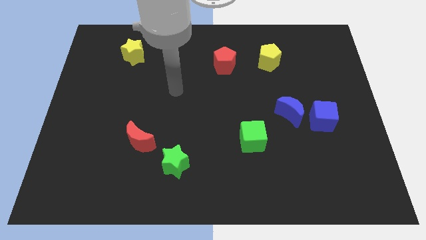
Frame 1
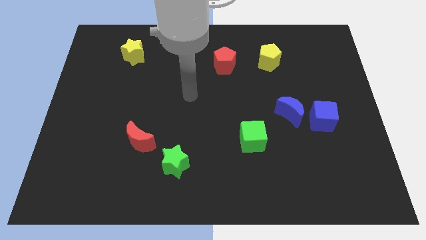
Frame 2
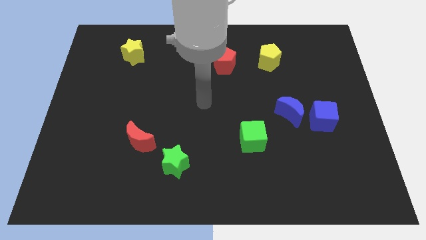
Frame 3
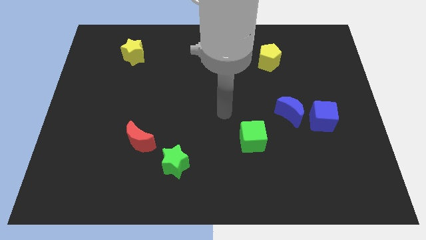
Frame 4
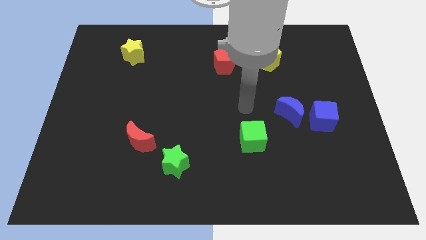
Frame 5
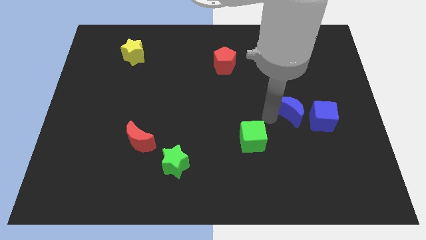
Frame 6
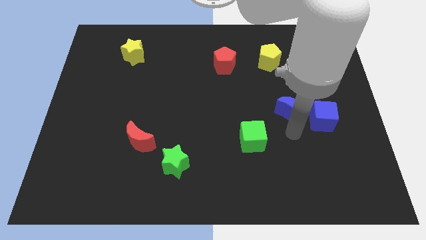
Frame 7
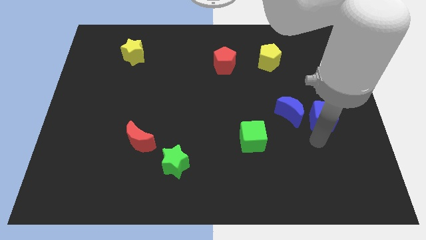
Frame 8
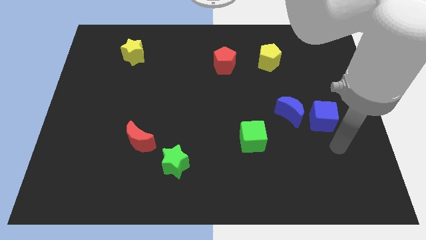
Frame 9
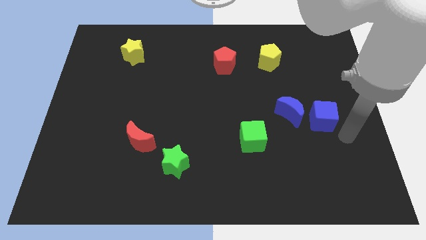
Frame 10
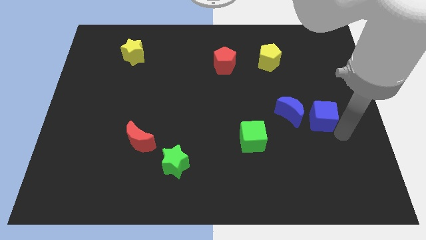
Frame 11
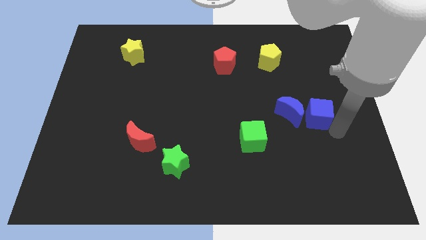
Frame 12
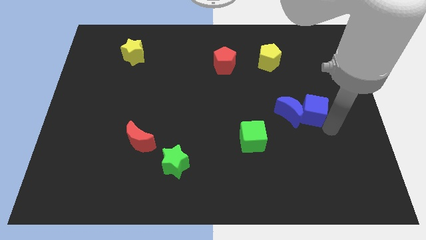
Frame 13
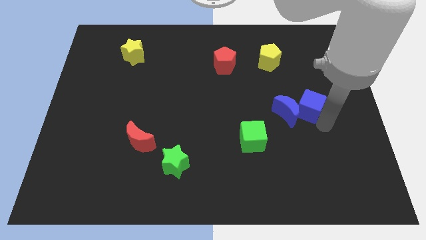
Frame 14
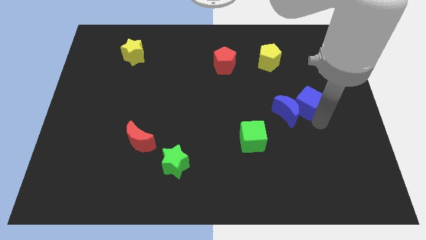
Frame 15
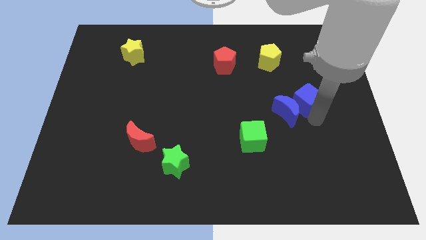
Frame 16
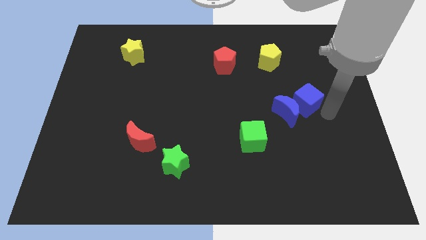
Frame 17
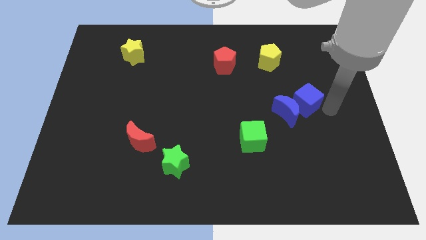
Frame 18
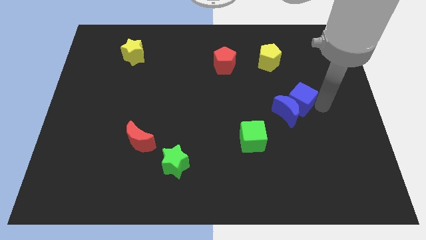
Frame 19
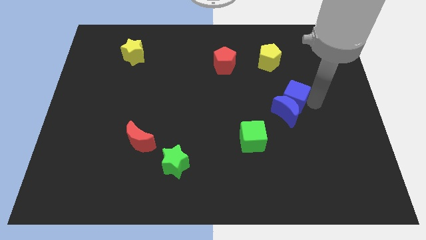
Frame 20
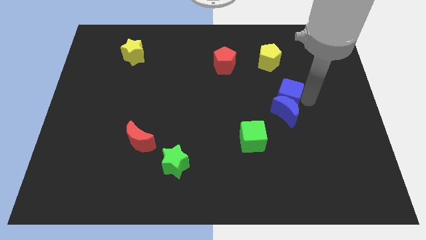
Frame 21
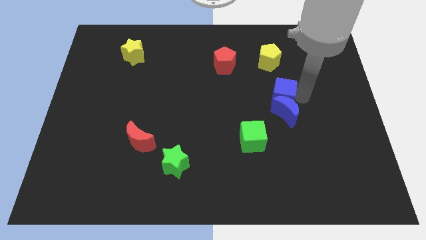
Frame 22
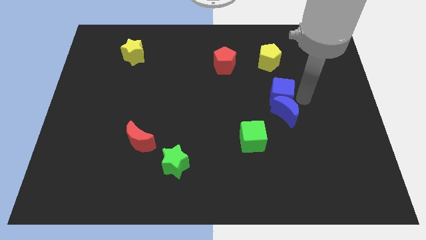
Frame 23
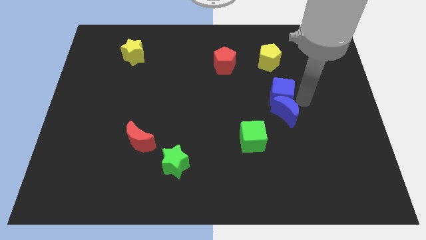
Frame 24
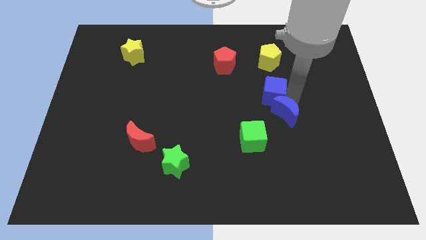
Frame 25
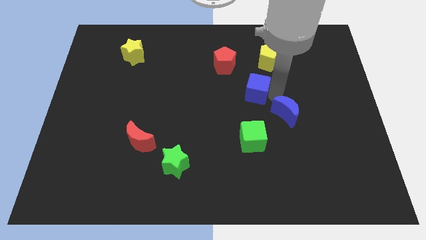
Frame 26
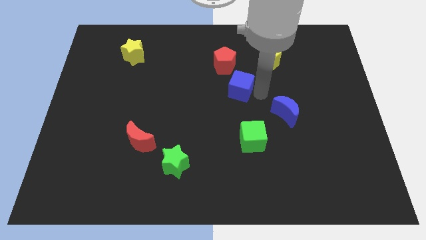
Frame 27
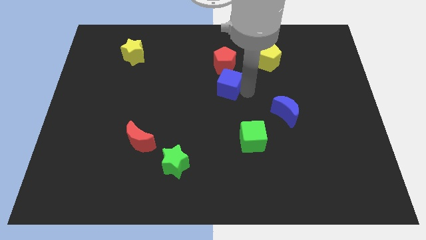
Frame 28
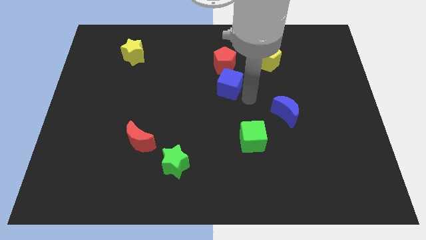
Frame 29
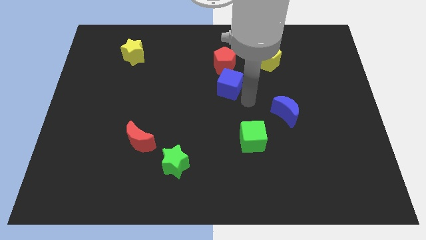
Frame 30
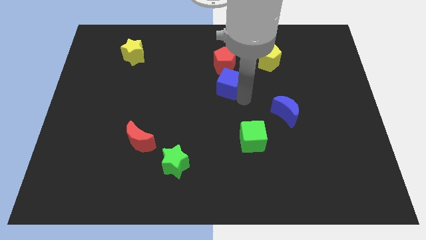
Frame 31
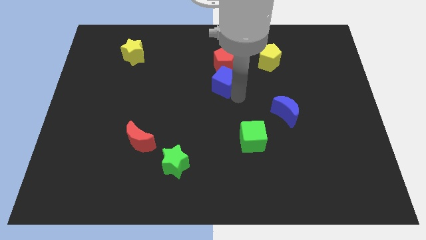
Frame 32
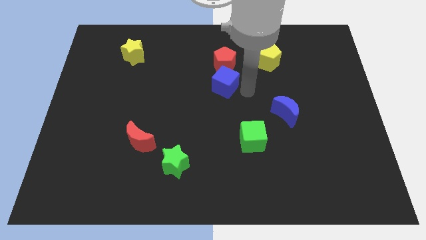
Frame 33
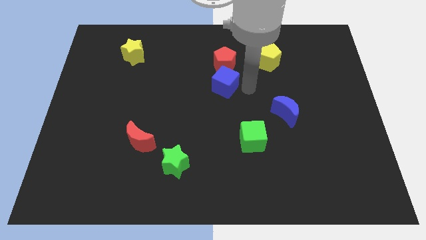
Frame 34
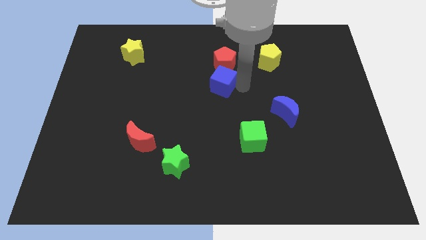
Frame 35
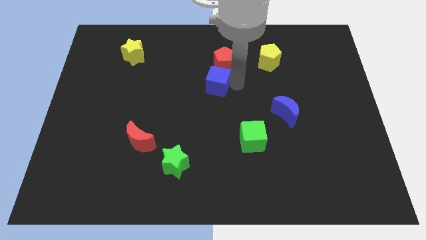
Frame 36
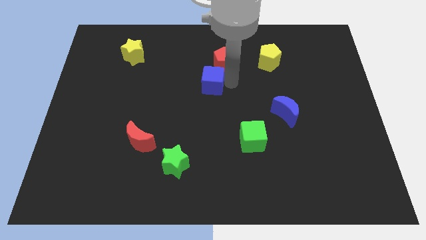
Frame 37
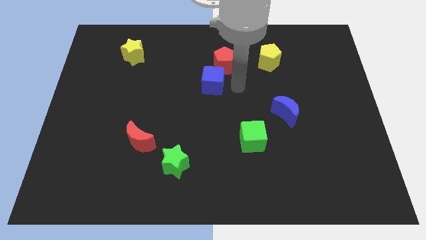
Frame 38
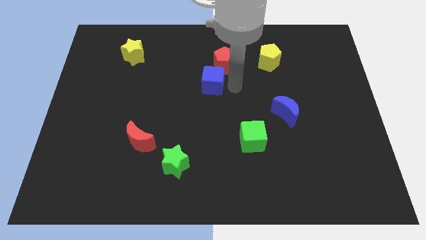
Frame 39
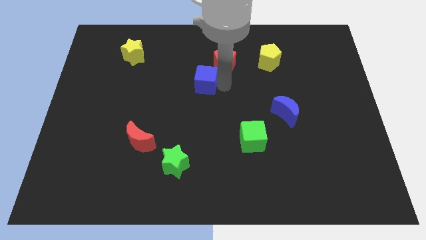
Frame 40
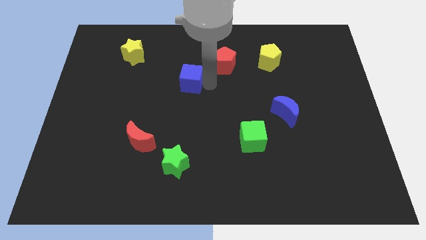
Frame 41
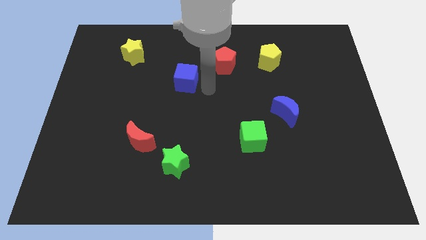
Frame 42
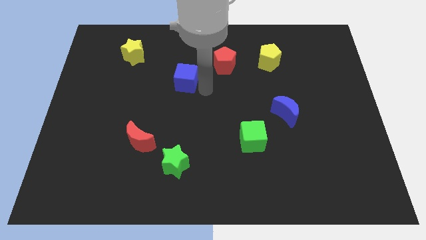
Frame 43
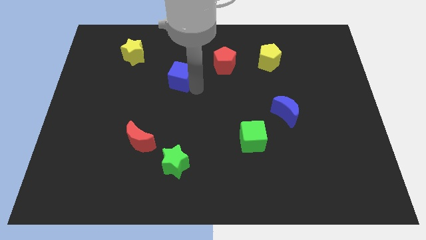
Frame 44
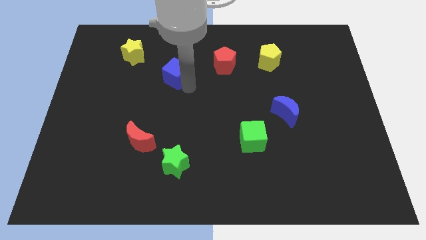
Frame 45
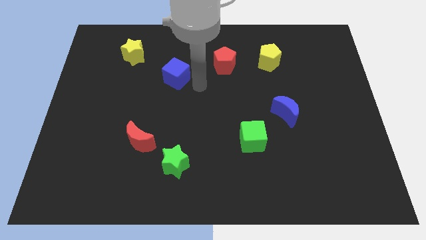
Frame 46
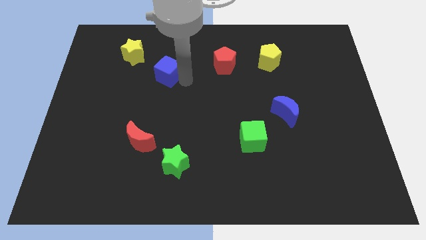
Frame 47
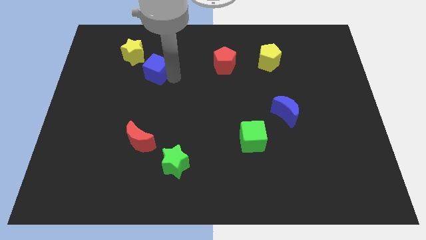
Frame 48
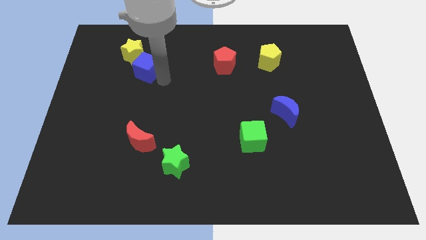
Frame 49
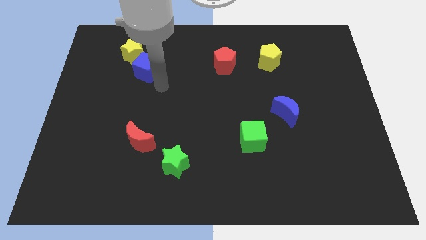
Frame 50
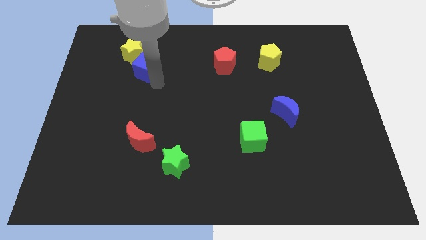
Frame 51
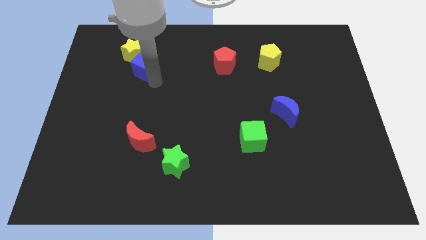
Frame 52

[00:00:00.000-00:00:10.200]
slide the blue cube to the yellow star

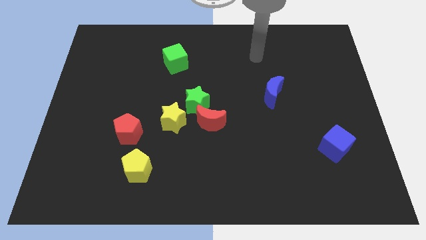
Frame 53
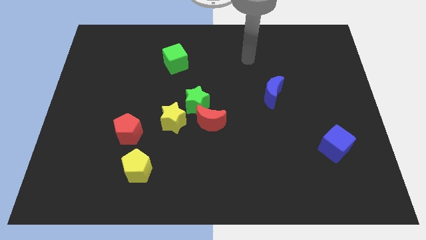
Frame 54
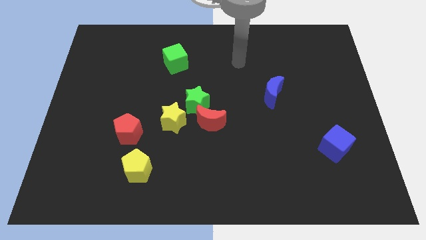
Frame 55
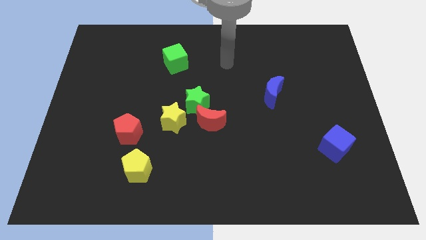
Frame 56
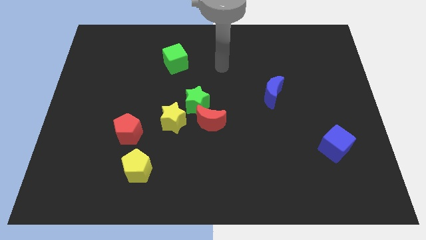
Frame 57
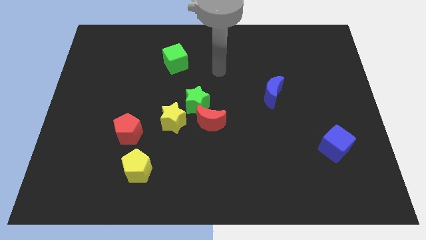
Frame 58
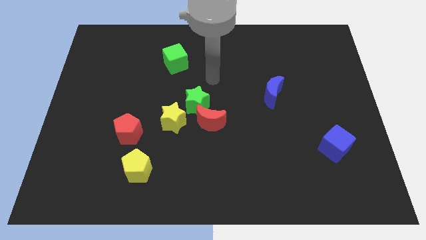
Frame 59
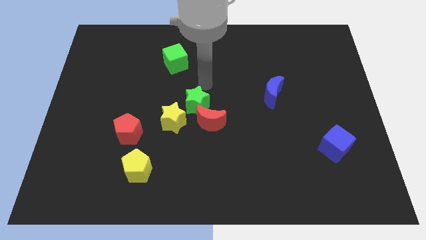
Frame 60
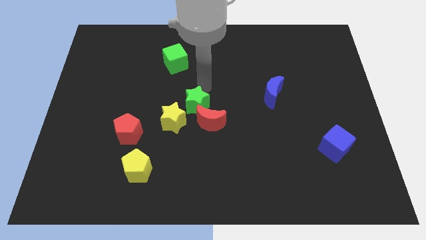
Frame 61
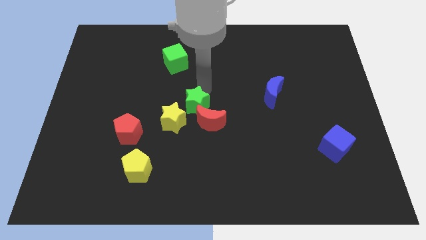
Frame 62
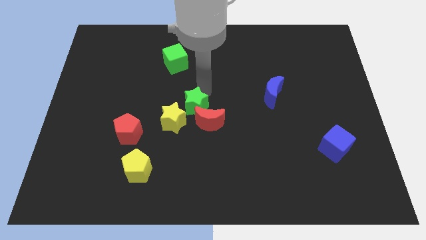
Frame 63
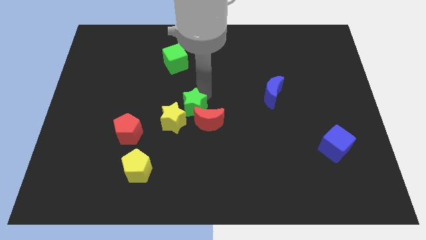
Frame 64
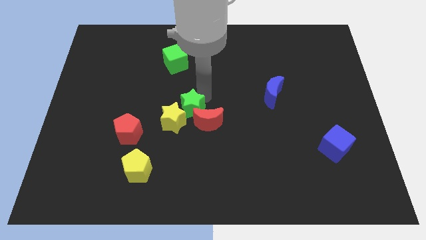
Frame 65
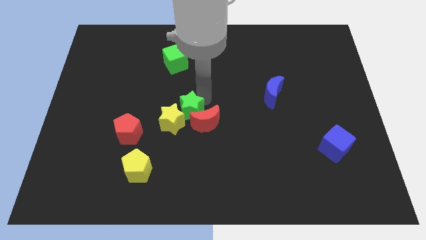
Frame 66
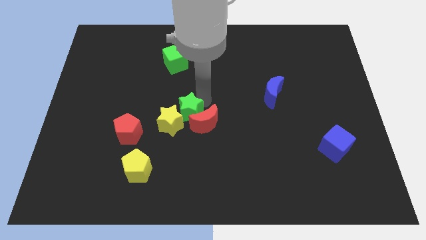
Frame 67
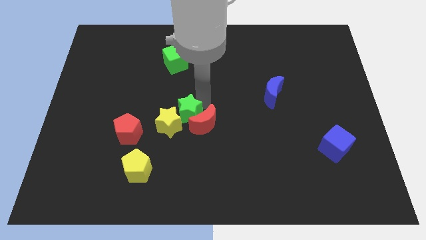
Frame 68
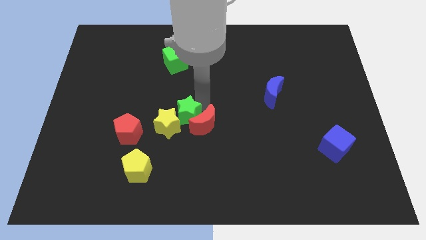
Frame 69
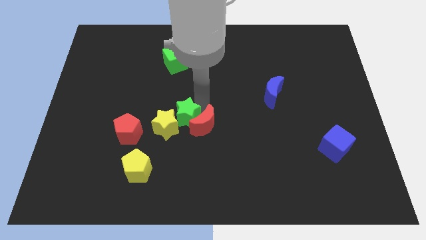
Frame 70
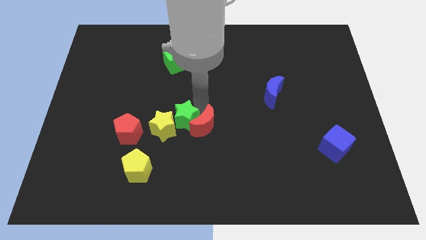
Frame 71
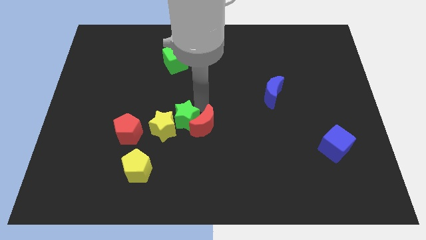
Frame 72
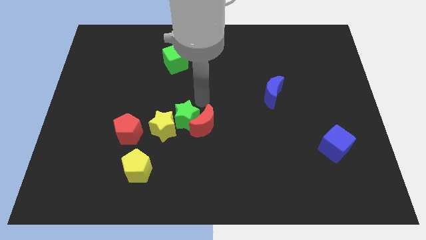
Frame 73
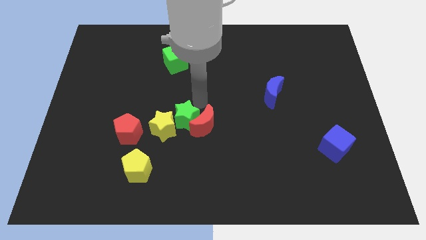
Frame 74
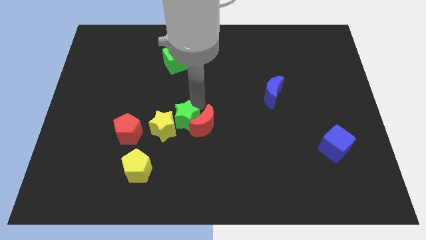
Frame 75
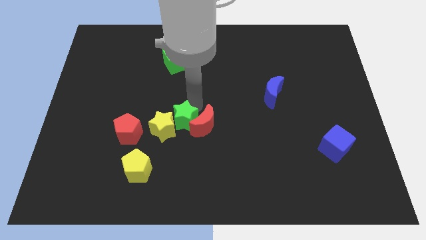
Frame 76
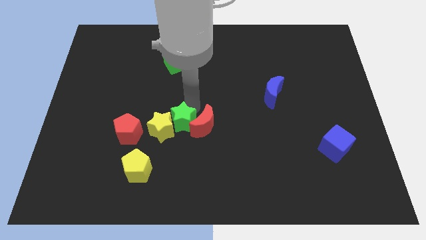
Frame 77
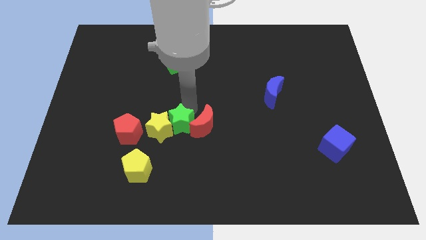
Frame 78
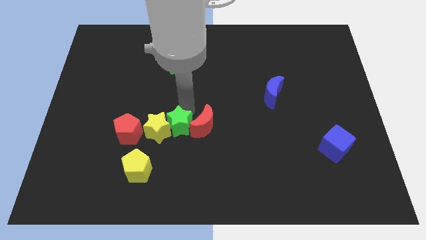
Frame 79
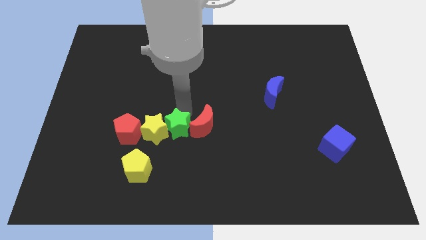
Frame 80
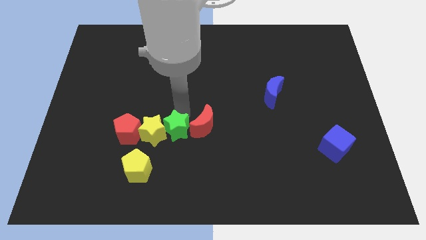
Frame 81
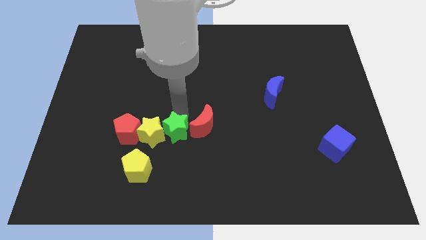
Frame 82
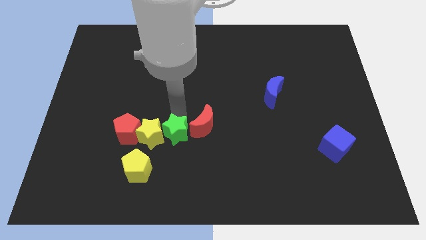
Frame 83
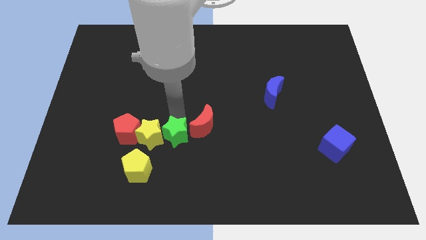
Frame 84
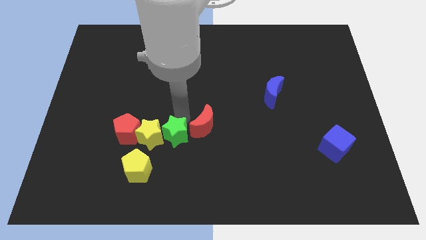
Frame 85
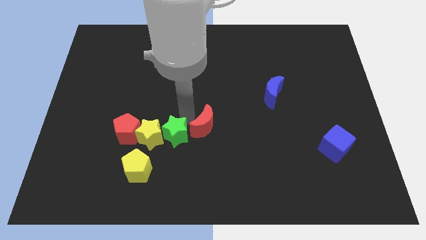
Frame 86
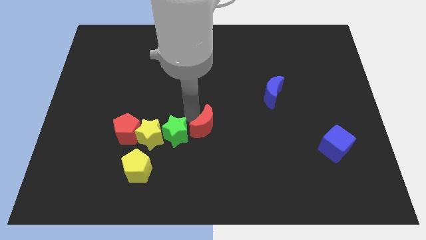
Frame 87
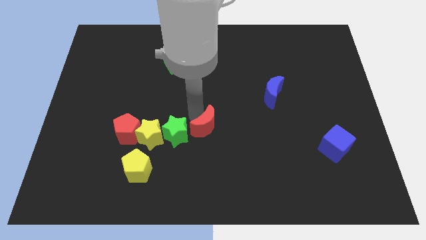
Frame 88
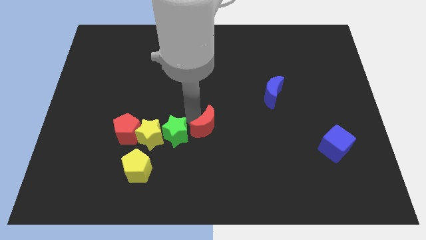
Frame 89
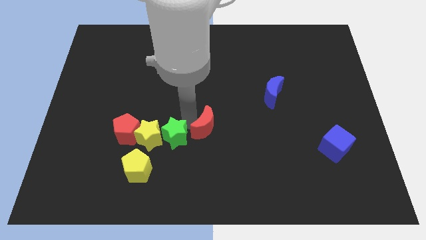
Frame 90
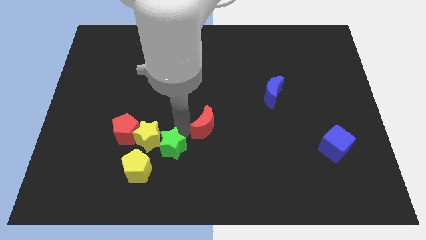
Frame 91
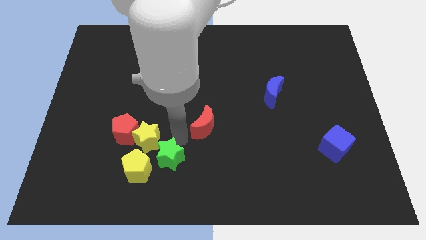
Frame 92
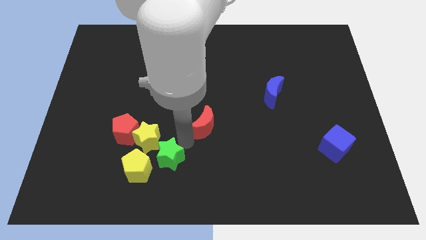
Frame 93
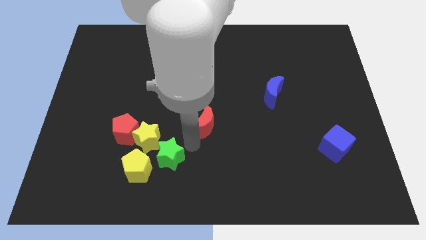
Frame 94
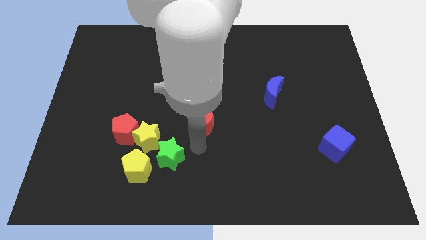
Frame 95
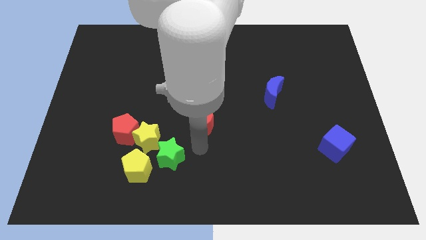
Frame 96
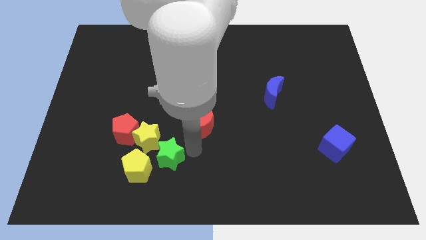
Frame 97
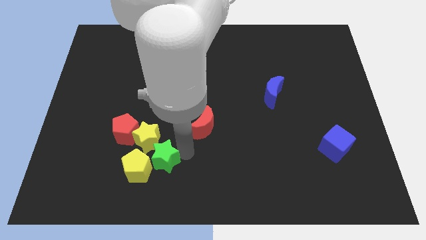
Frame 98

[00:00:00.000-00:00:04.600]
move the green star next to the yellow pentagon
